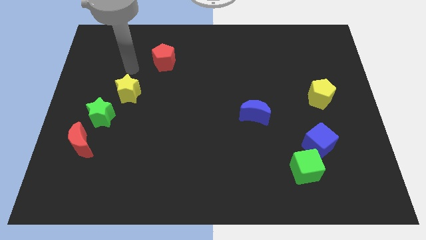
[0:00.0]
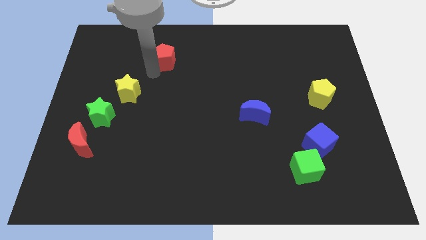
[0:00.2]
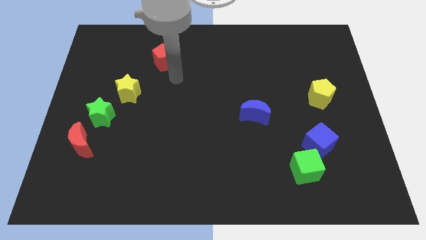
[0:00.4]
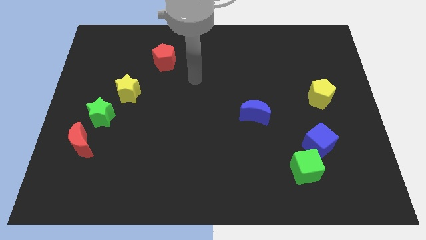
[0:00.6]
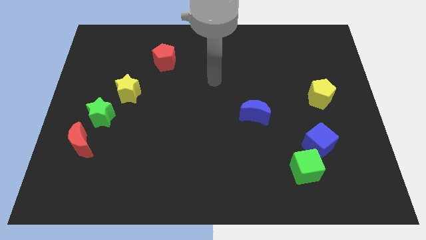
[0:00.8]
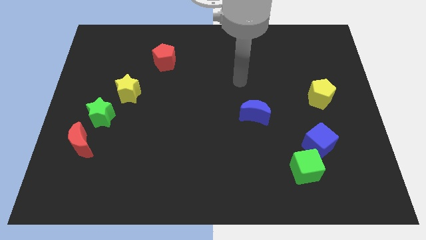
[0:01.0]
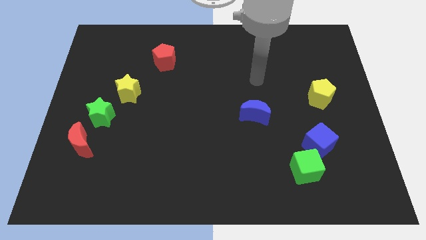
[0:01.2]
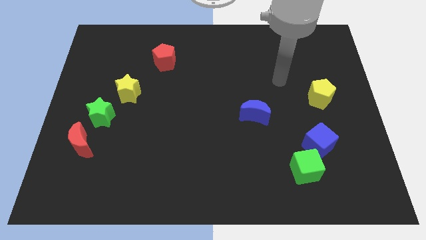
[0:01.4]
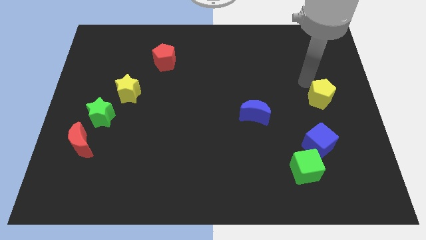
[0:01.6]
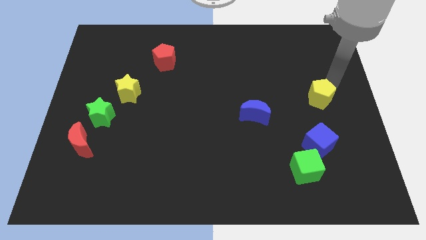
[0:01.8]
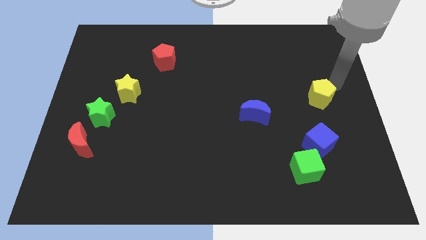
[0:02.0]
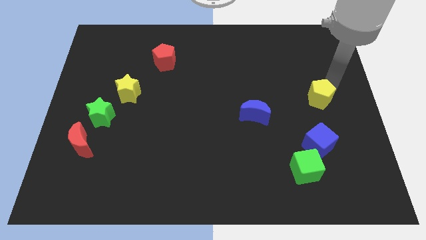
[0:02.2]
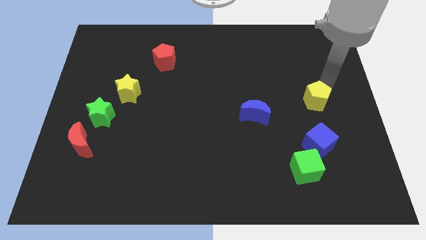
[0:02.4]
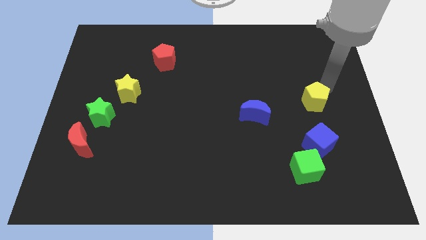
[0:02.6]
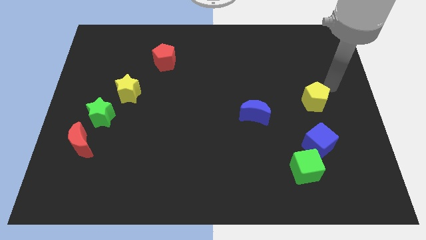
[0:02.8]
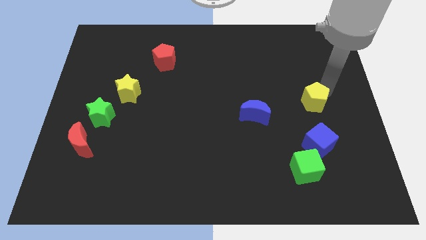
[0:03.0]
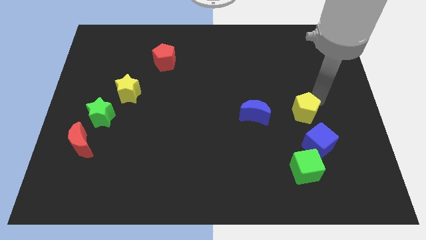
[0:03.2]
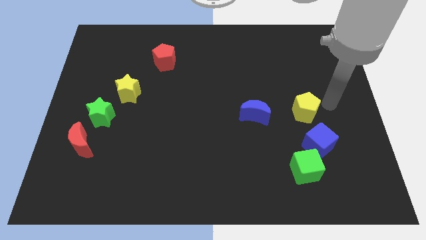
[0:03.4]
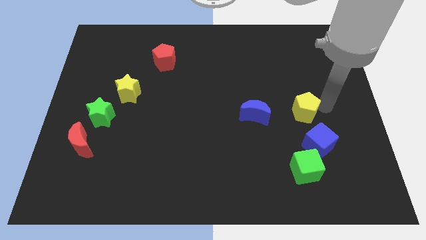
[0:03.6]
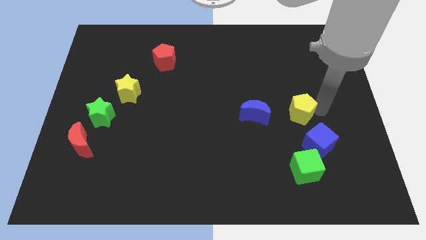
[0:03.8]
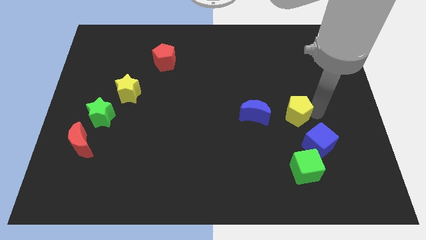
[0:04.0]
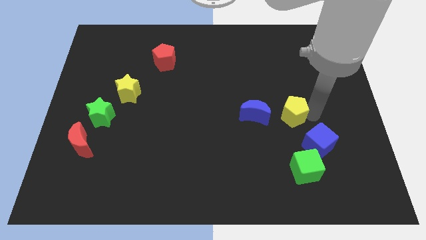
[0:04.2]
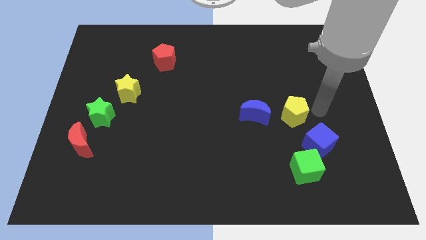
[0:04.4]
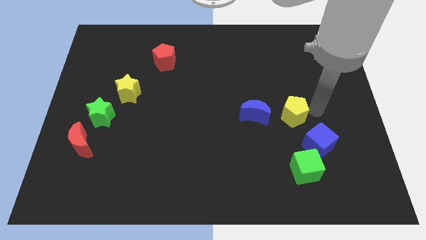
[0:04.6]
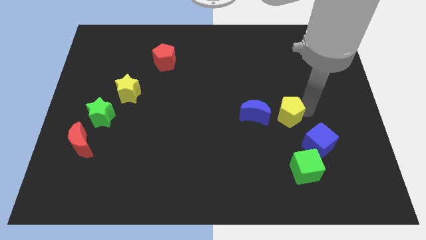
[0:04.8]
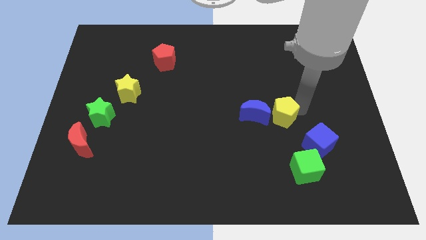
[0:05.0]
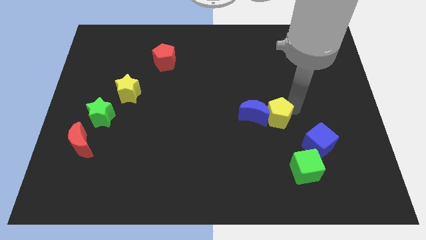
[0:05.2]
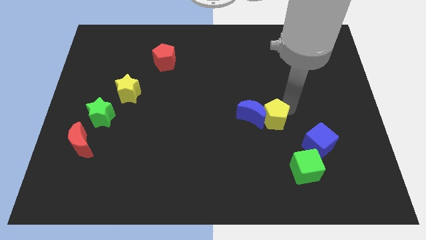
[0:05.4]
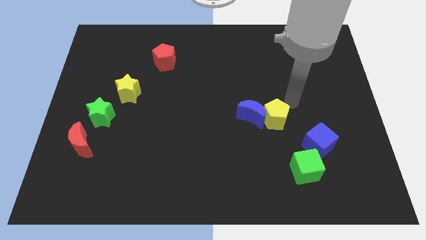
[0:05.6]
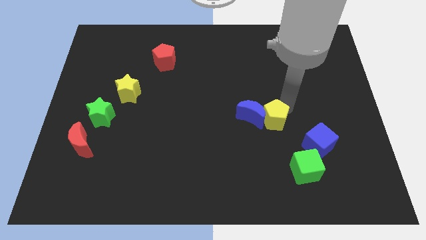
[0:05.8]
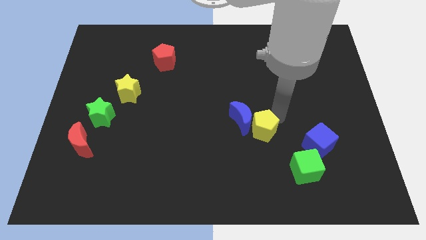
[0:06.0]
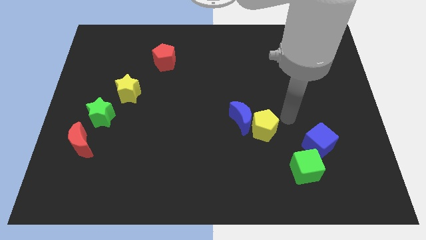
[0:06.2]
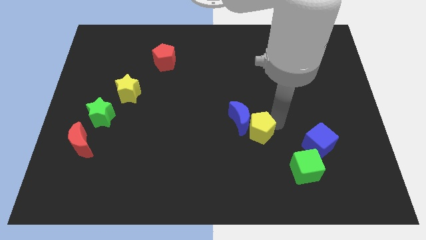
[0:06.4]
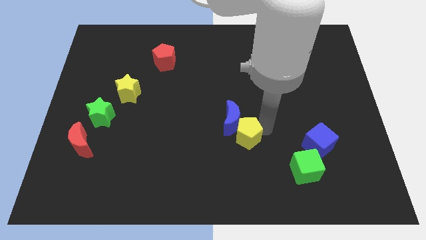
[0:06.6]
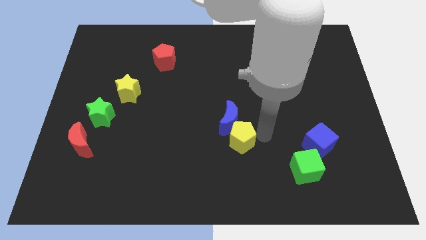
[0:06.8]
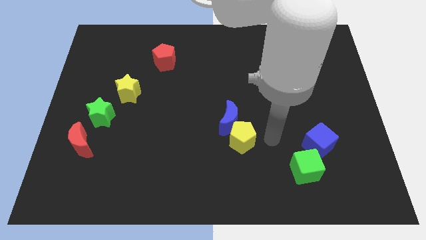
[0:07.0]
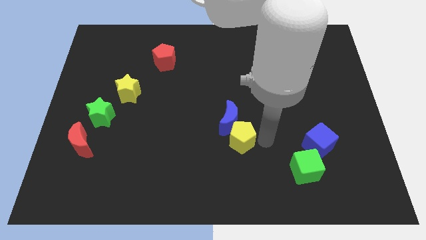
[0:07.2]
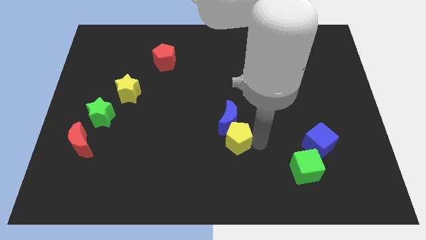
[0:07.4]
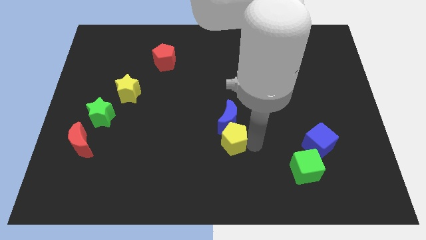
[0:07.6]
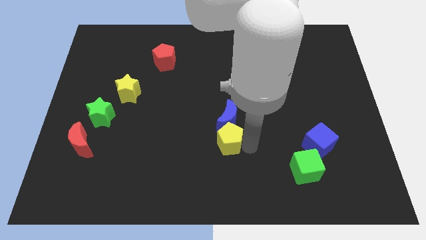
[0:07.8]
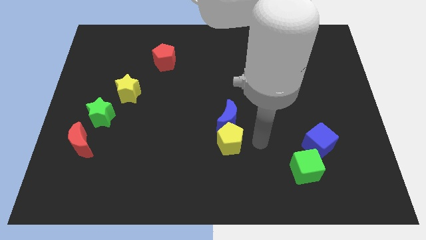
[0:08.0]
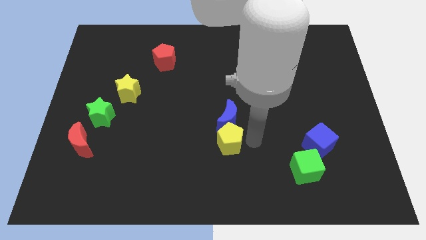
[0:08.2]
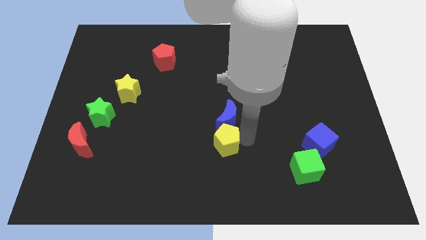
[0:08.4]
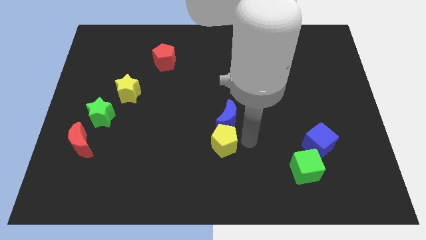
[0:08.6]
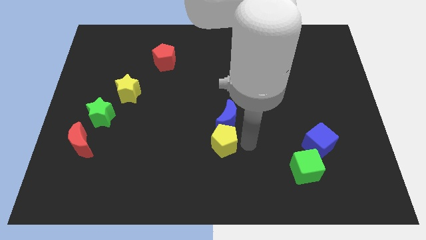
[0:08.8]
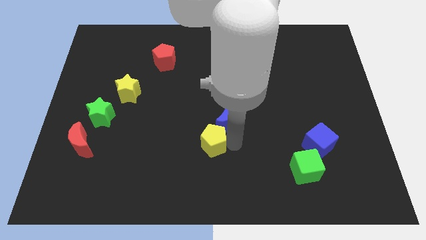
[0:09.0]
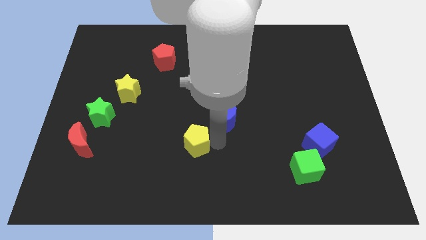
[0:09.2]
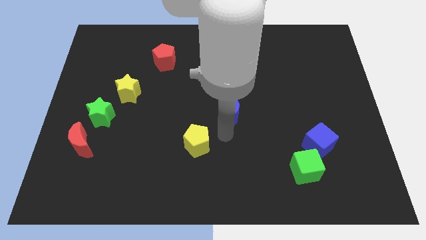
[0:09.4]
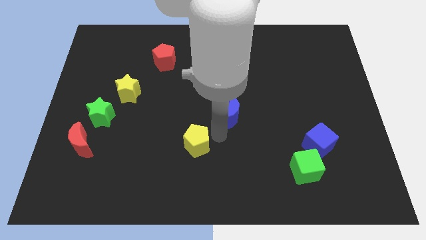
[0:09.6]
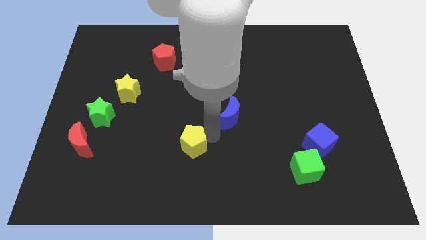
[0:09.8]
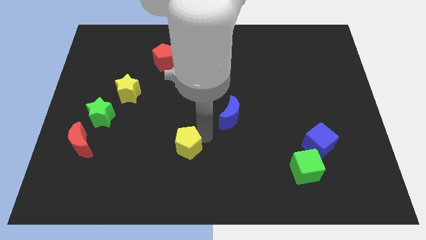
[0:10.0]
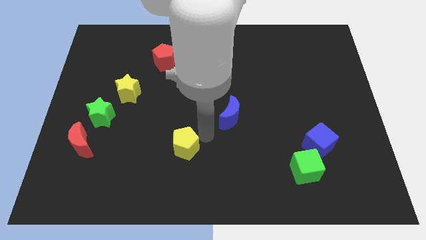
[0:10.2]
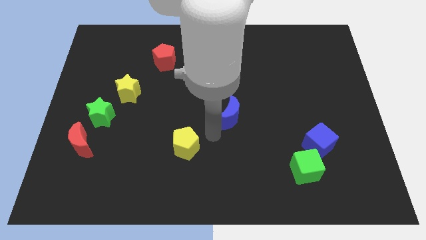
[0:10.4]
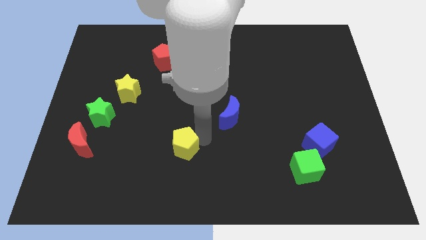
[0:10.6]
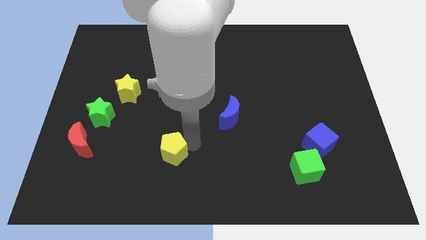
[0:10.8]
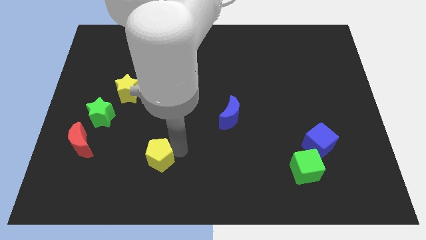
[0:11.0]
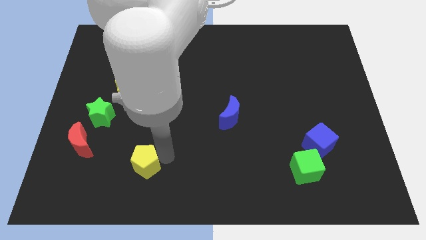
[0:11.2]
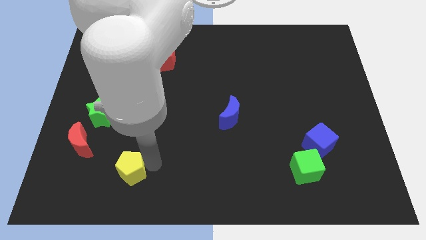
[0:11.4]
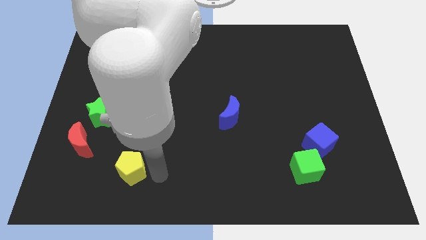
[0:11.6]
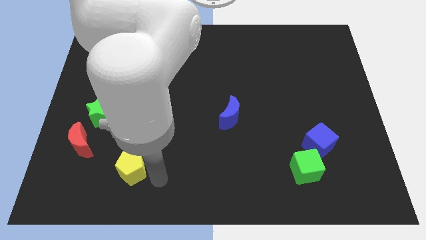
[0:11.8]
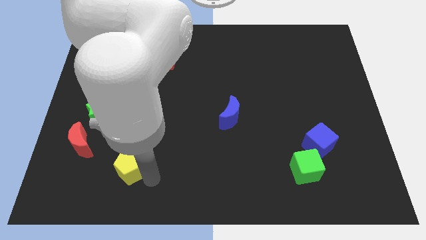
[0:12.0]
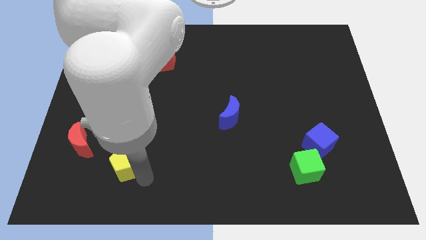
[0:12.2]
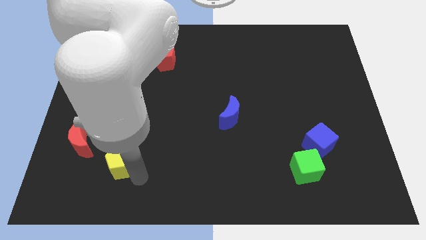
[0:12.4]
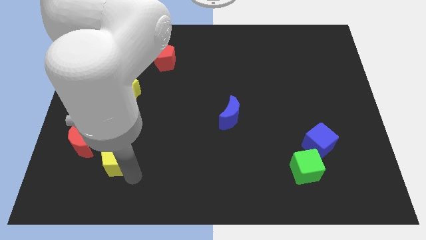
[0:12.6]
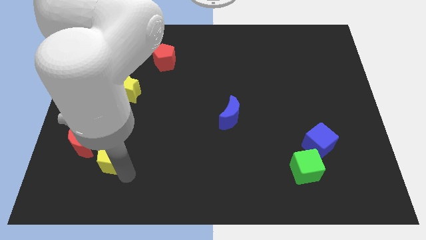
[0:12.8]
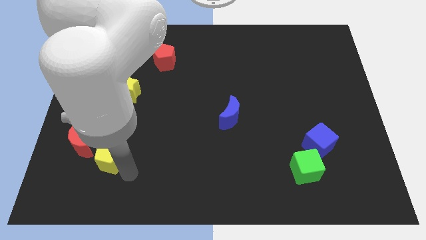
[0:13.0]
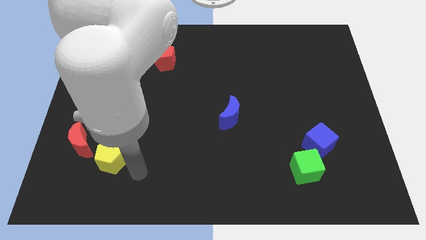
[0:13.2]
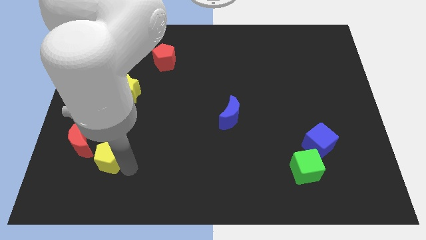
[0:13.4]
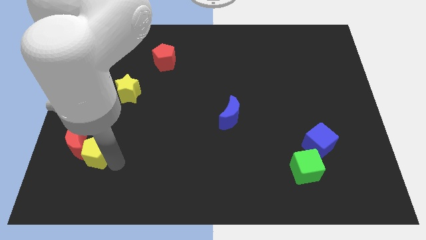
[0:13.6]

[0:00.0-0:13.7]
move the yellow pentagon next to the red moon

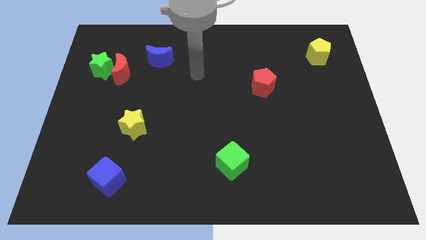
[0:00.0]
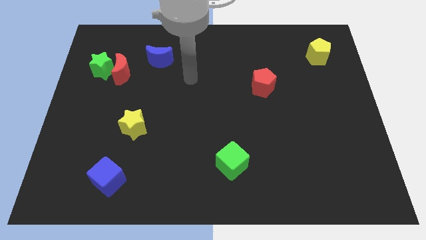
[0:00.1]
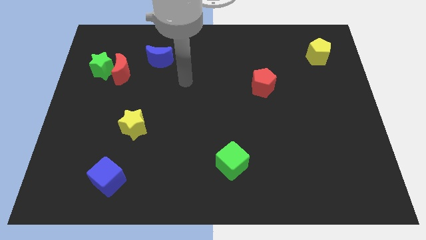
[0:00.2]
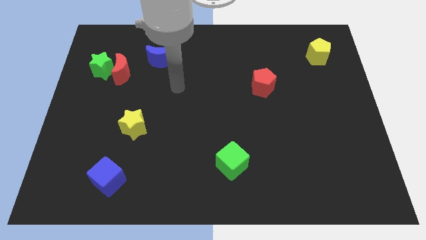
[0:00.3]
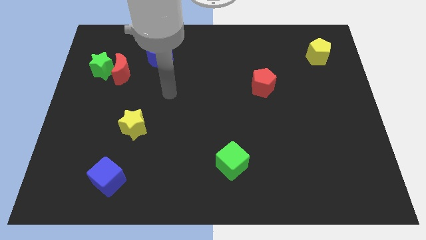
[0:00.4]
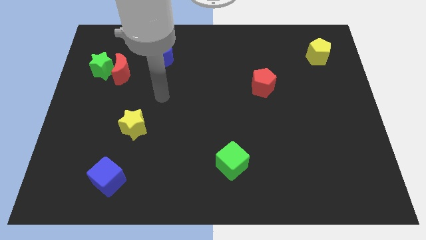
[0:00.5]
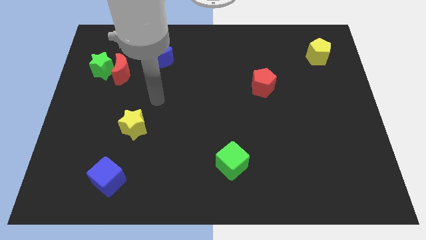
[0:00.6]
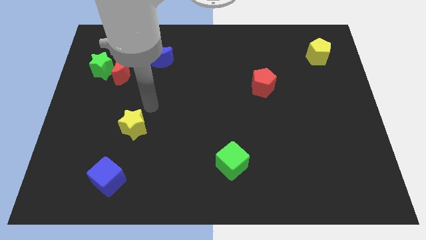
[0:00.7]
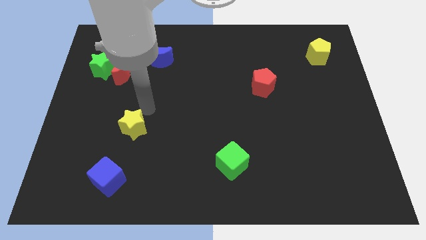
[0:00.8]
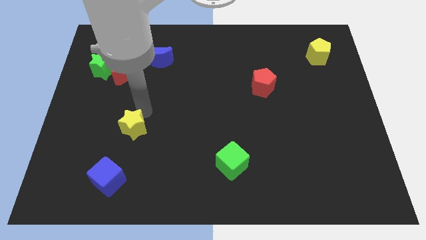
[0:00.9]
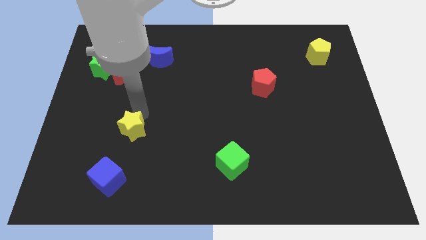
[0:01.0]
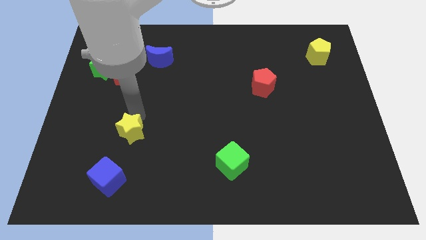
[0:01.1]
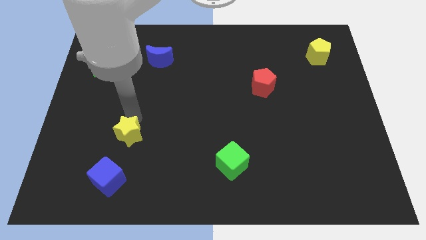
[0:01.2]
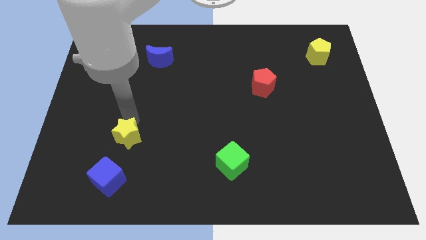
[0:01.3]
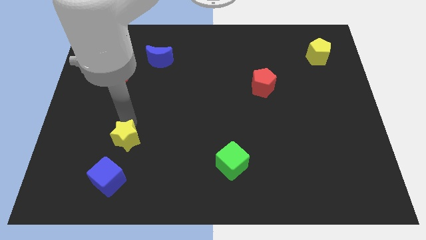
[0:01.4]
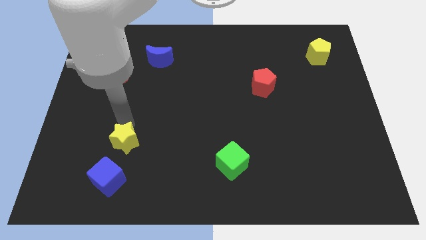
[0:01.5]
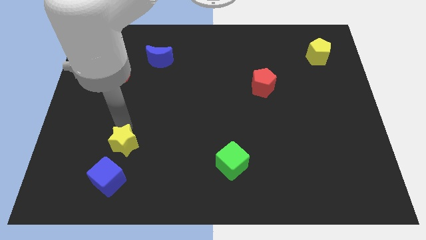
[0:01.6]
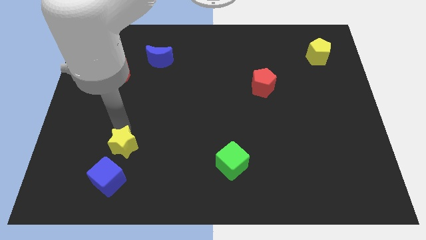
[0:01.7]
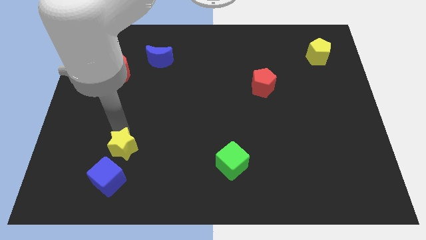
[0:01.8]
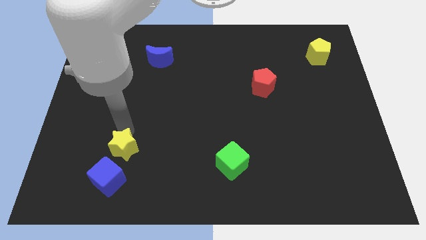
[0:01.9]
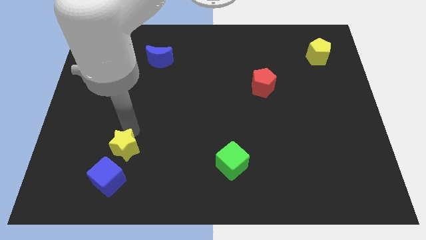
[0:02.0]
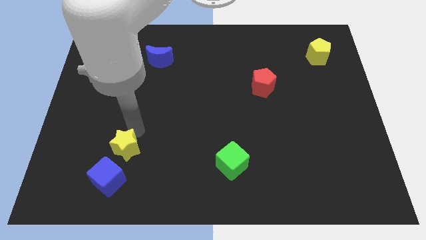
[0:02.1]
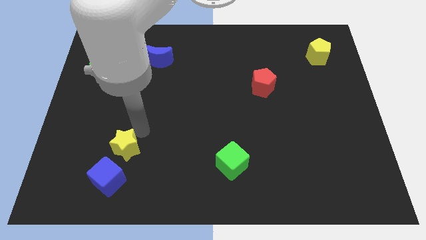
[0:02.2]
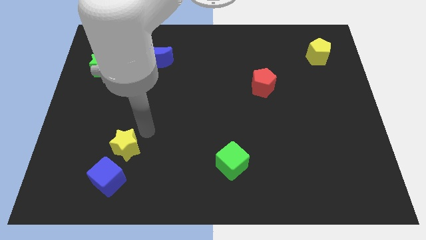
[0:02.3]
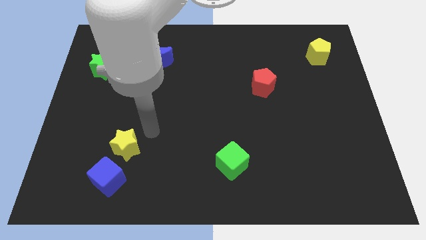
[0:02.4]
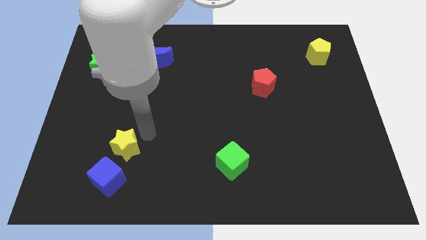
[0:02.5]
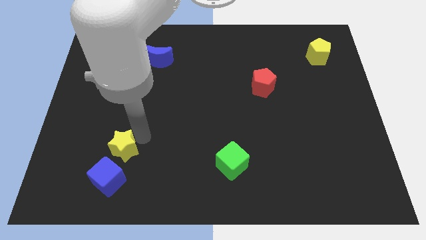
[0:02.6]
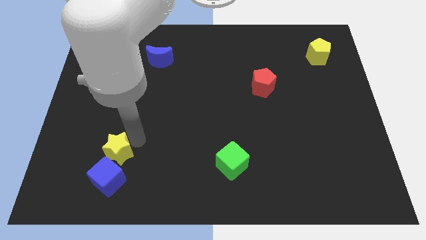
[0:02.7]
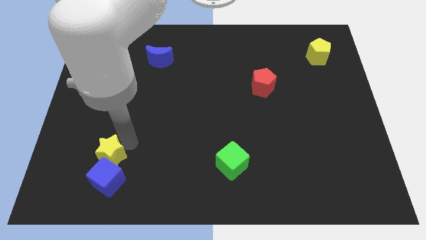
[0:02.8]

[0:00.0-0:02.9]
move the yellow star next to the blue cube
